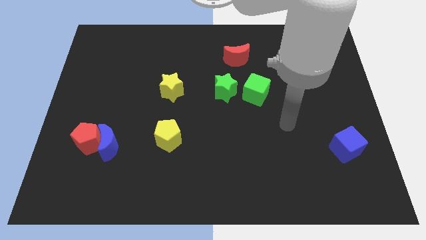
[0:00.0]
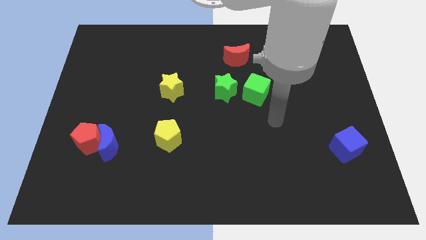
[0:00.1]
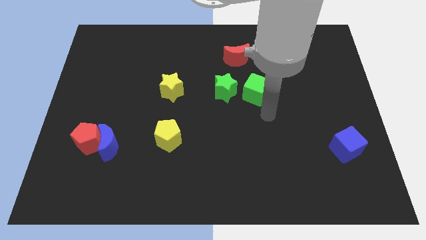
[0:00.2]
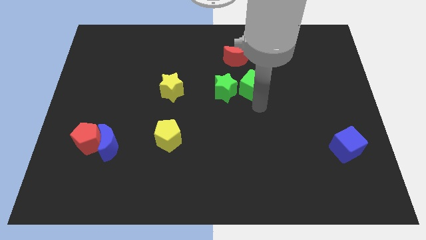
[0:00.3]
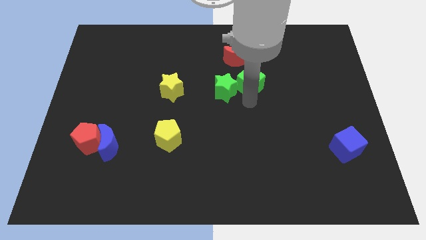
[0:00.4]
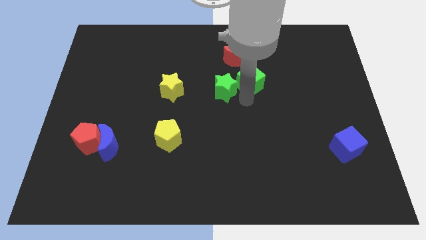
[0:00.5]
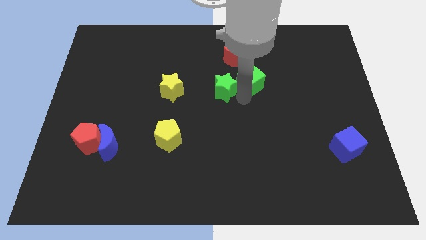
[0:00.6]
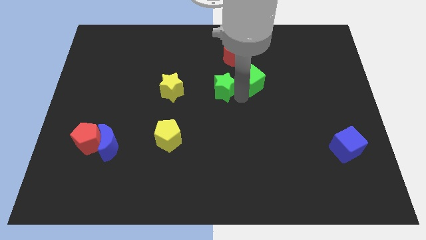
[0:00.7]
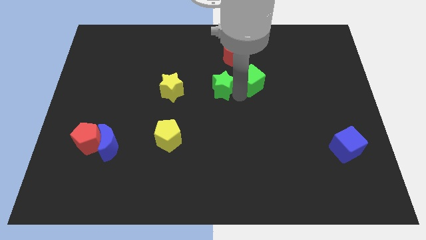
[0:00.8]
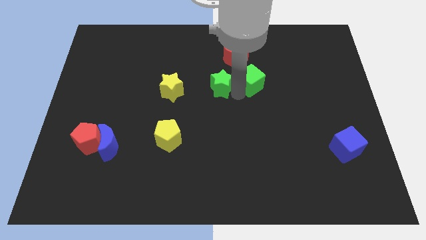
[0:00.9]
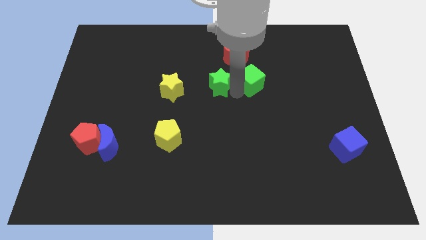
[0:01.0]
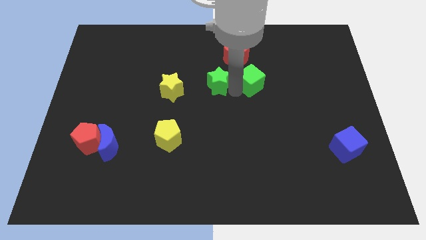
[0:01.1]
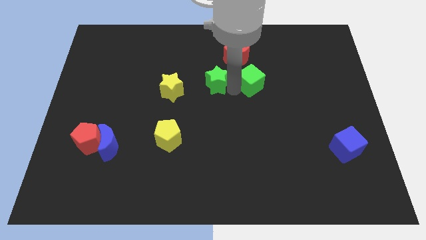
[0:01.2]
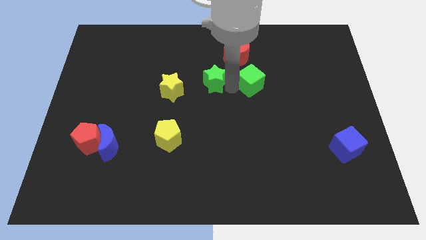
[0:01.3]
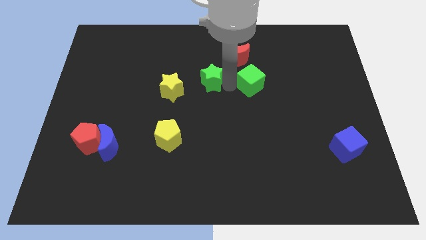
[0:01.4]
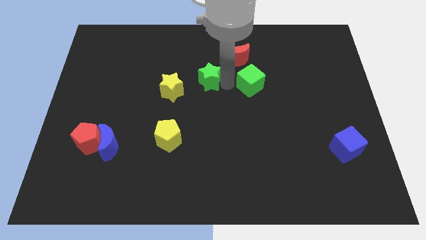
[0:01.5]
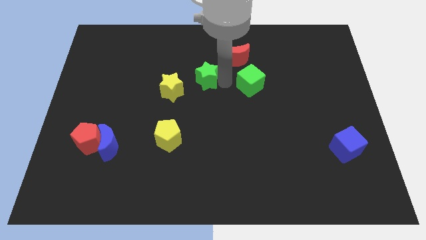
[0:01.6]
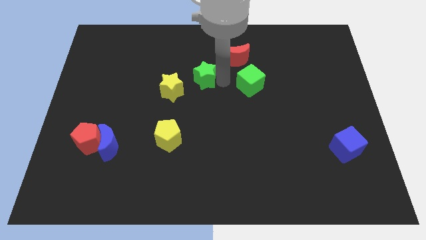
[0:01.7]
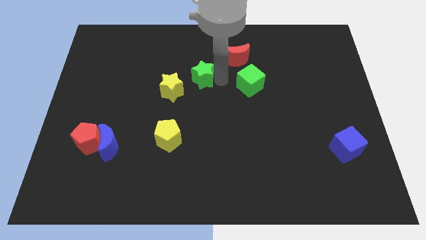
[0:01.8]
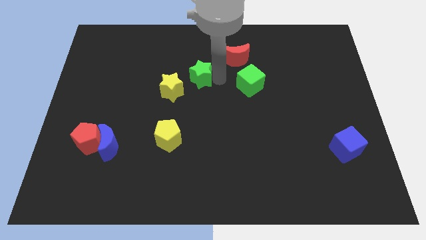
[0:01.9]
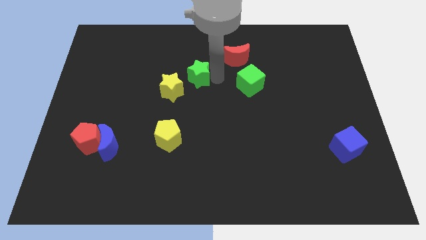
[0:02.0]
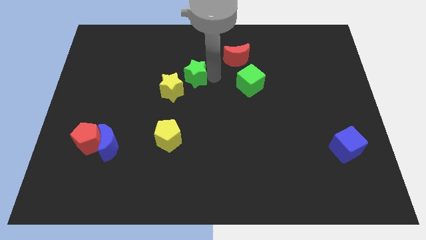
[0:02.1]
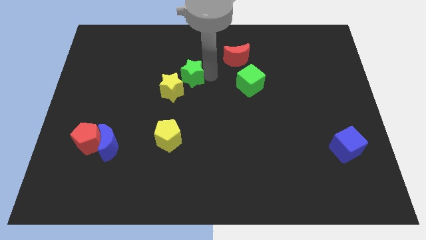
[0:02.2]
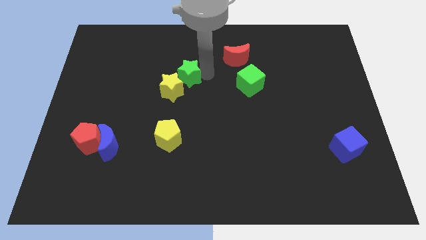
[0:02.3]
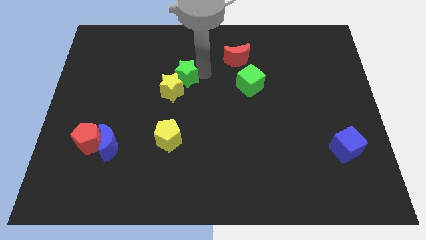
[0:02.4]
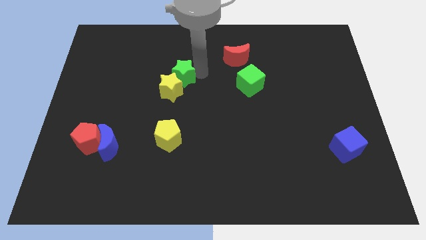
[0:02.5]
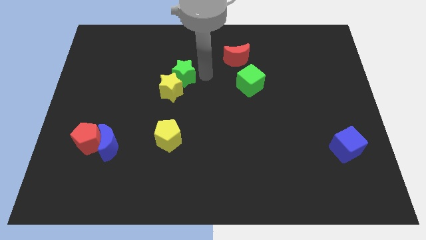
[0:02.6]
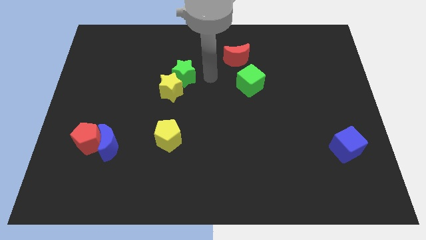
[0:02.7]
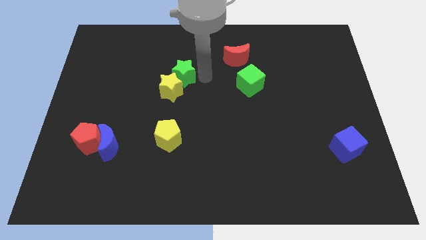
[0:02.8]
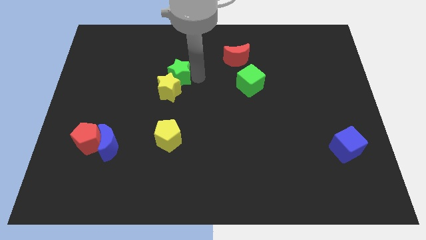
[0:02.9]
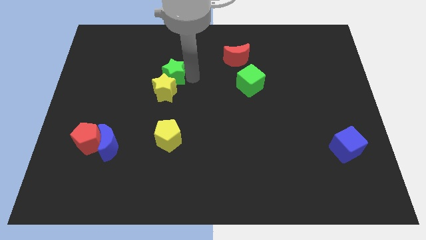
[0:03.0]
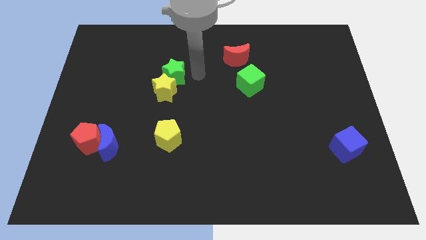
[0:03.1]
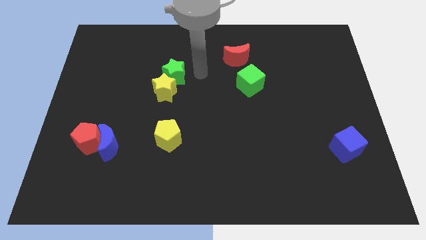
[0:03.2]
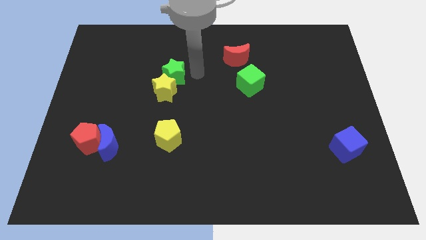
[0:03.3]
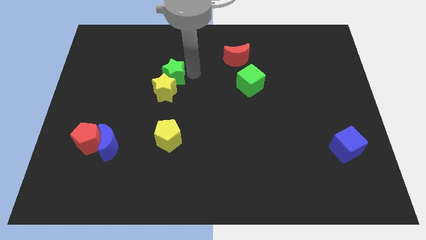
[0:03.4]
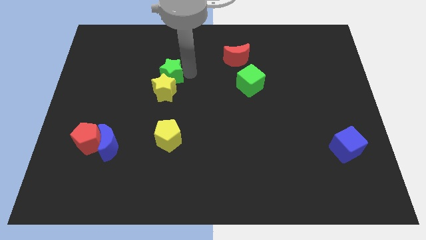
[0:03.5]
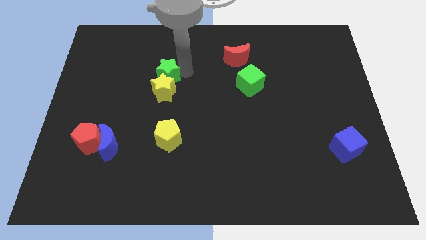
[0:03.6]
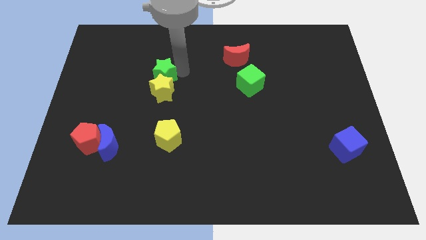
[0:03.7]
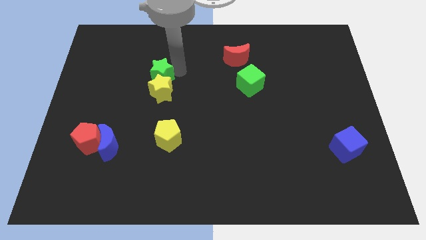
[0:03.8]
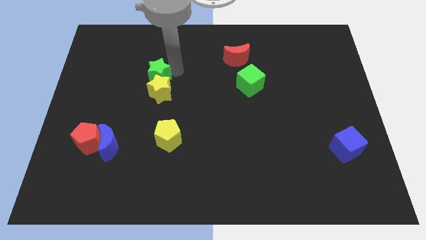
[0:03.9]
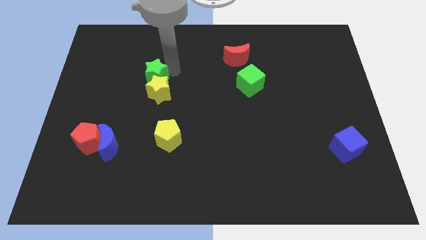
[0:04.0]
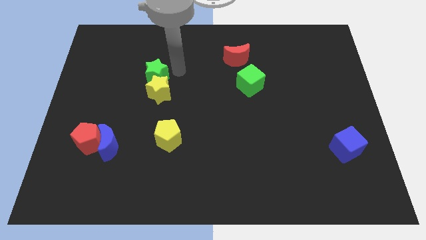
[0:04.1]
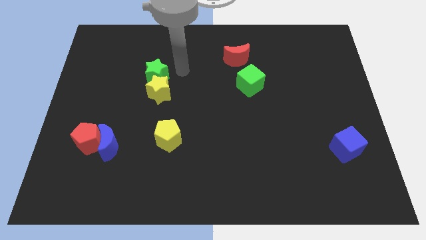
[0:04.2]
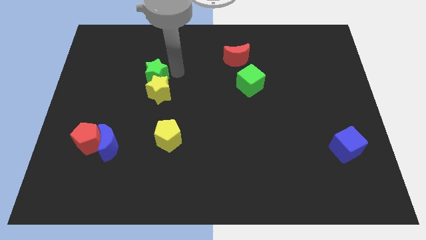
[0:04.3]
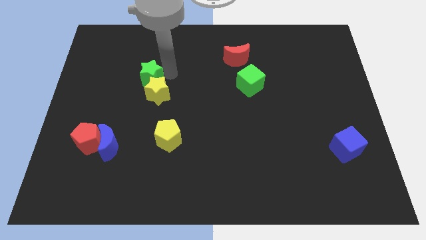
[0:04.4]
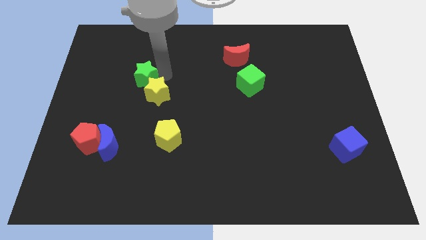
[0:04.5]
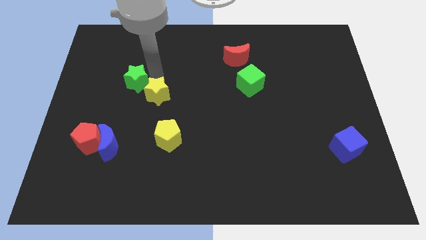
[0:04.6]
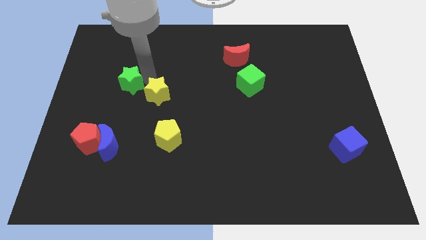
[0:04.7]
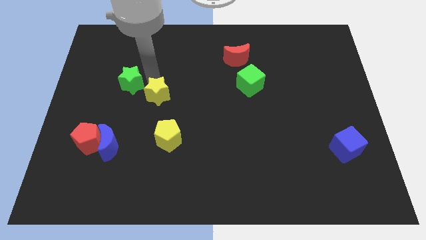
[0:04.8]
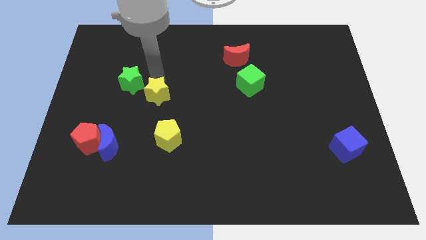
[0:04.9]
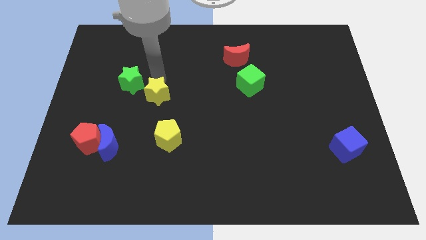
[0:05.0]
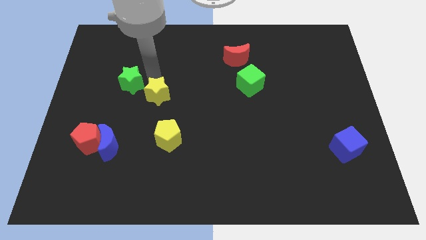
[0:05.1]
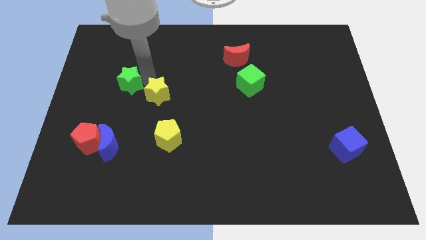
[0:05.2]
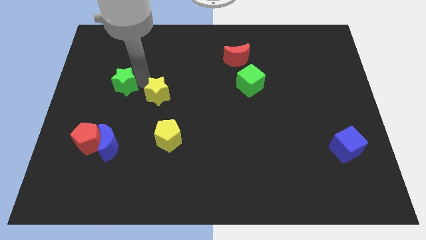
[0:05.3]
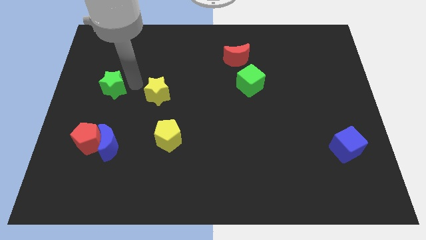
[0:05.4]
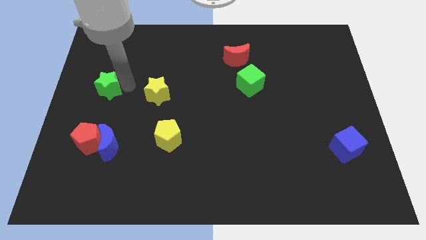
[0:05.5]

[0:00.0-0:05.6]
push the green star to the left side of the board

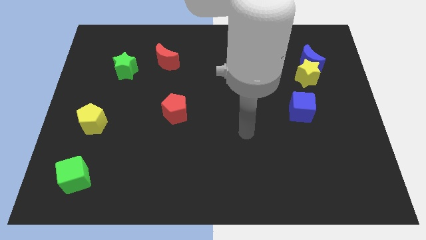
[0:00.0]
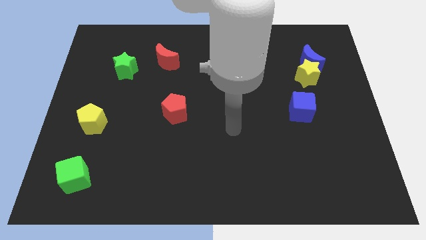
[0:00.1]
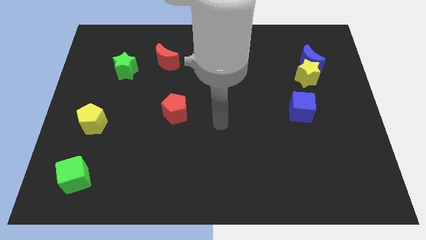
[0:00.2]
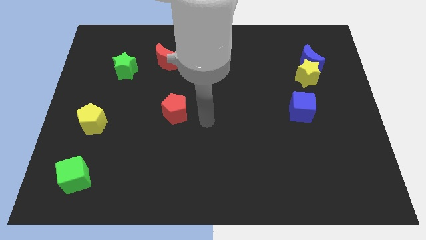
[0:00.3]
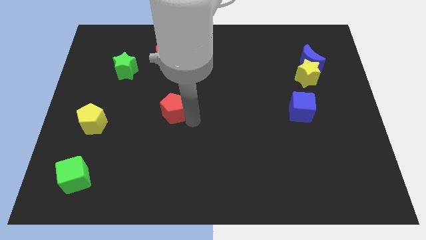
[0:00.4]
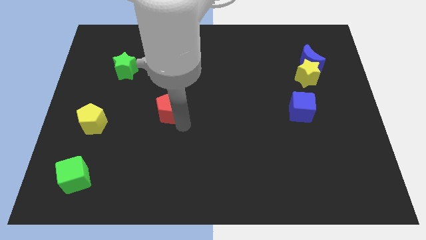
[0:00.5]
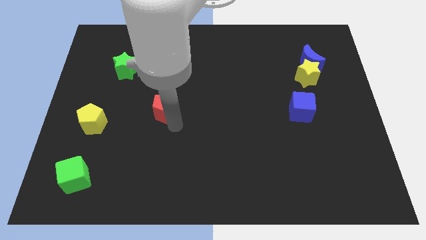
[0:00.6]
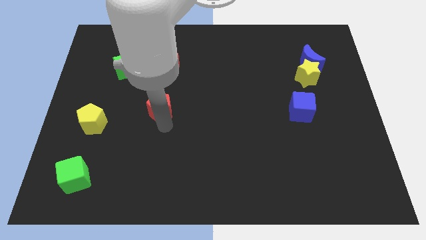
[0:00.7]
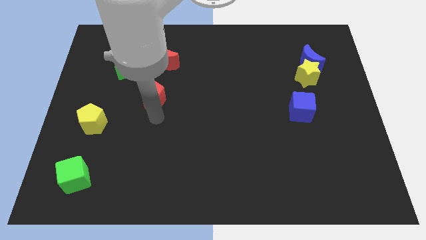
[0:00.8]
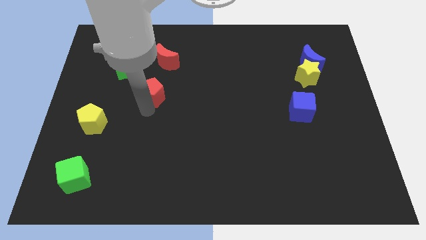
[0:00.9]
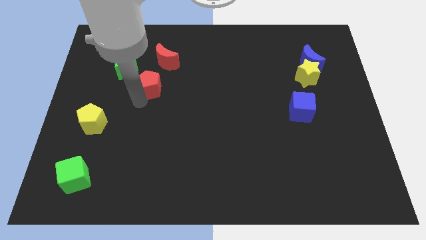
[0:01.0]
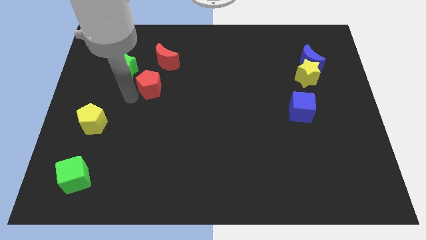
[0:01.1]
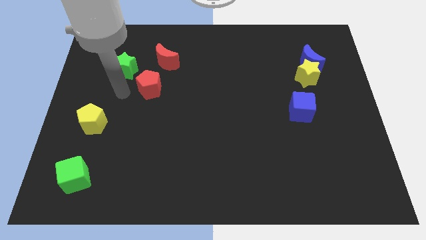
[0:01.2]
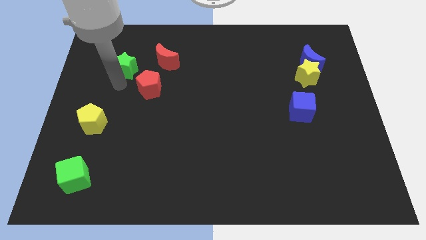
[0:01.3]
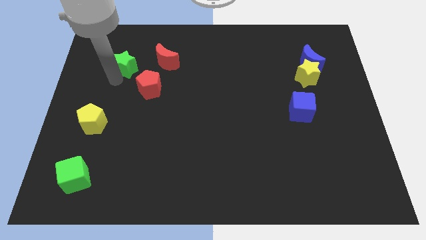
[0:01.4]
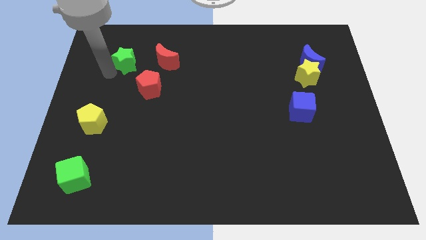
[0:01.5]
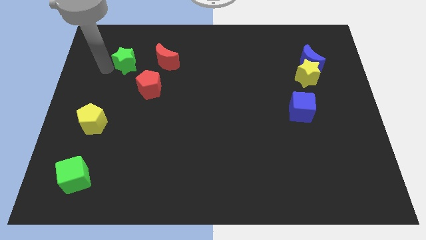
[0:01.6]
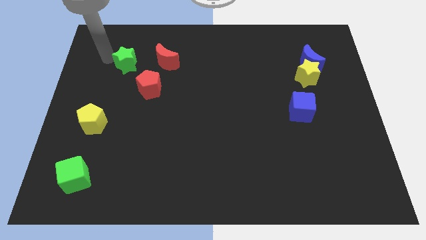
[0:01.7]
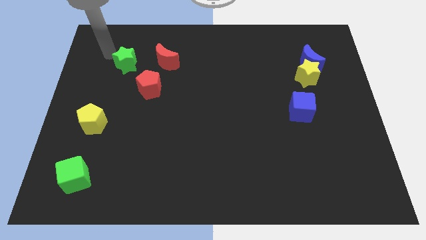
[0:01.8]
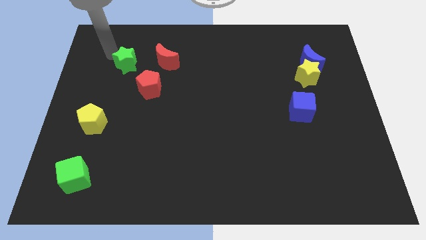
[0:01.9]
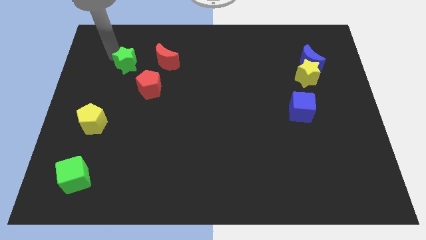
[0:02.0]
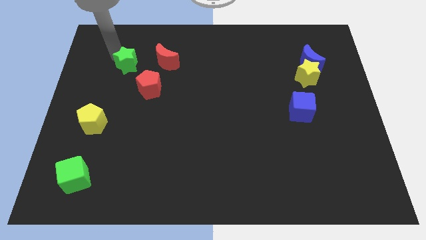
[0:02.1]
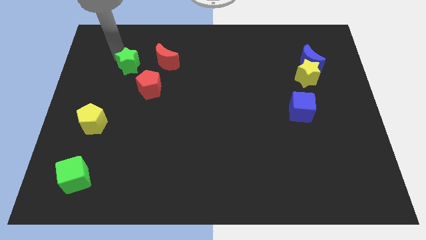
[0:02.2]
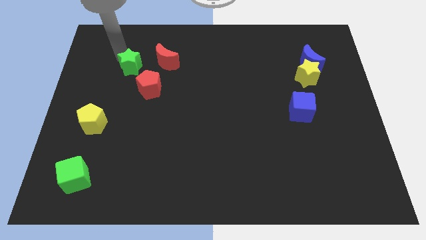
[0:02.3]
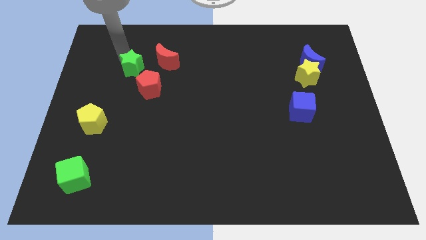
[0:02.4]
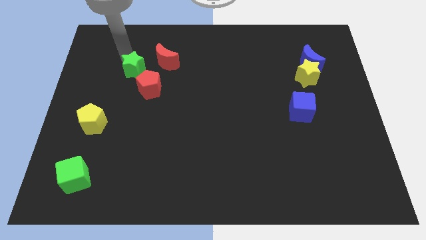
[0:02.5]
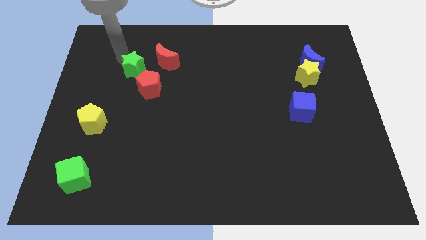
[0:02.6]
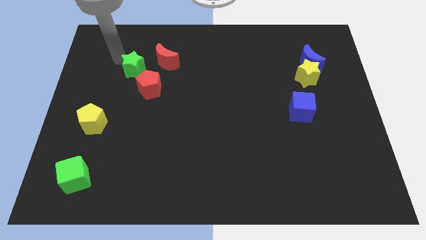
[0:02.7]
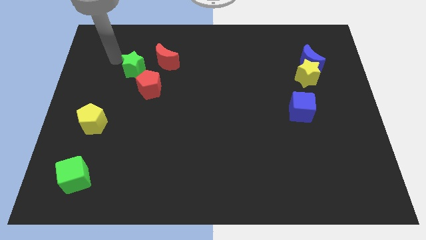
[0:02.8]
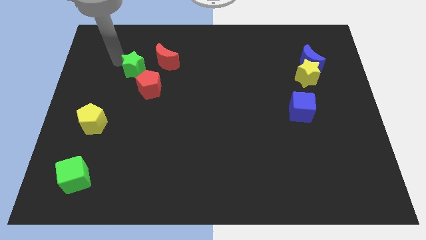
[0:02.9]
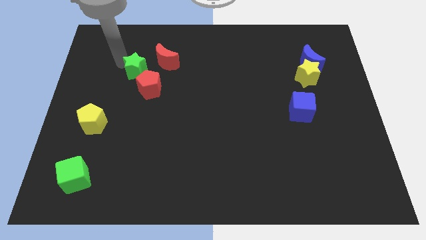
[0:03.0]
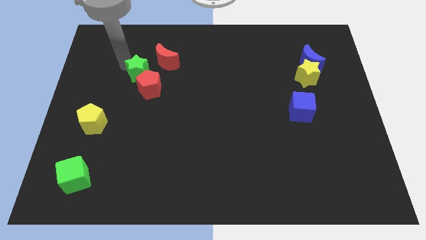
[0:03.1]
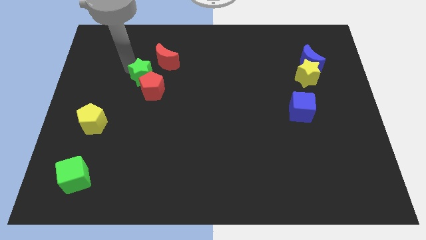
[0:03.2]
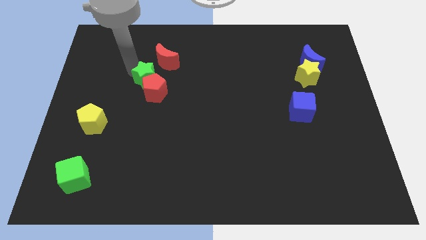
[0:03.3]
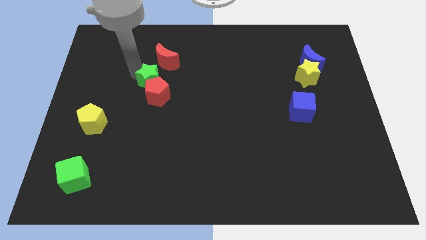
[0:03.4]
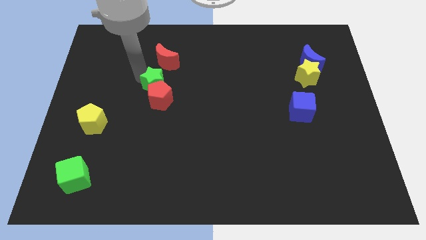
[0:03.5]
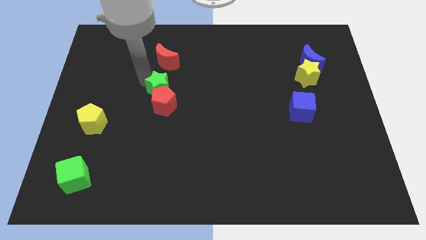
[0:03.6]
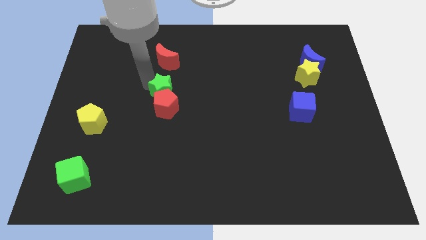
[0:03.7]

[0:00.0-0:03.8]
put the green star to the middle
